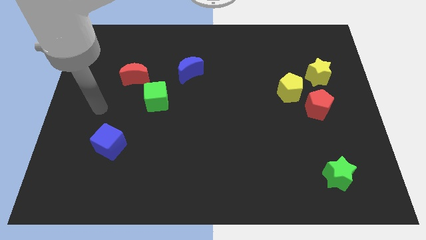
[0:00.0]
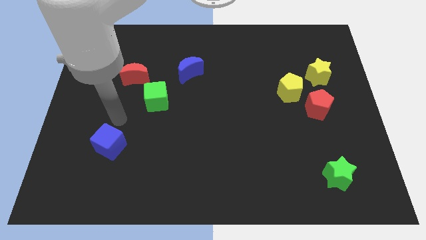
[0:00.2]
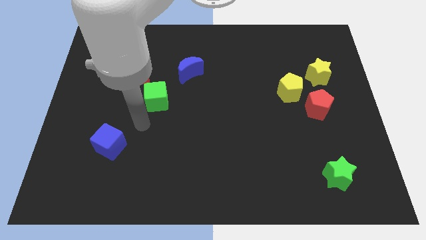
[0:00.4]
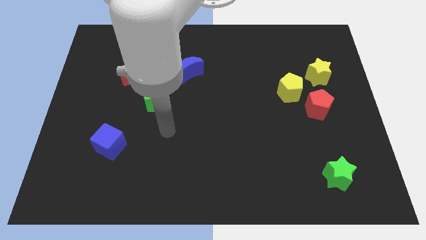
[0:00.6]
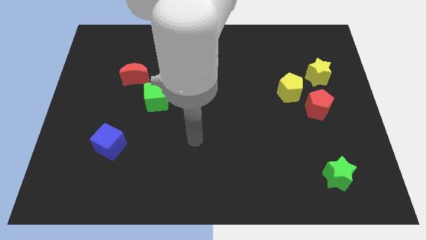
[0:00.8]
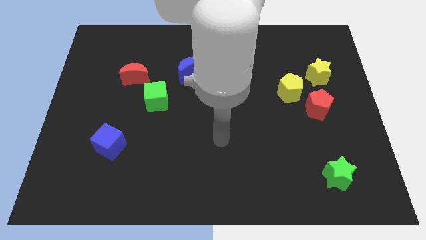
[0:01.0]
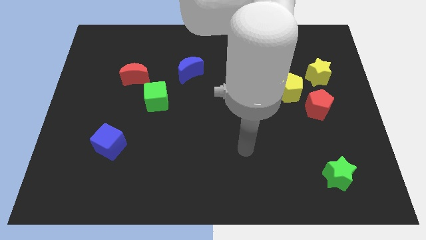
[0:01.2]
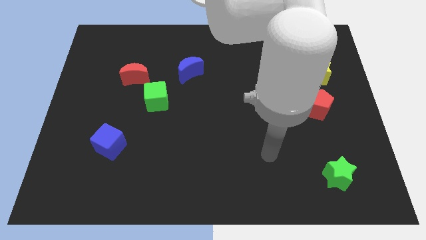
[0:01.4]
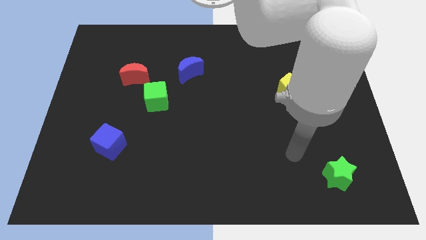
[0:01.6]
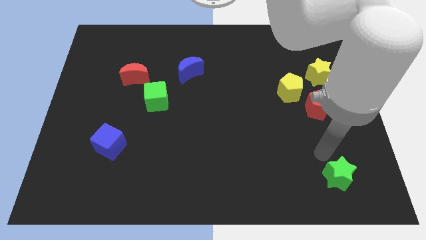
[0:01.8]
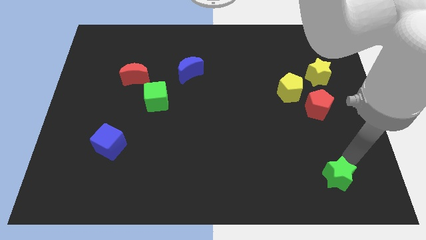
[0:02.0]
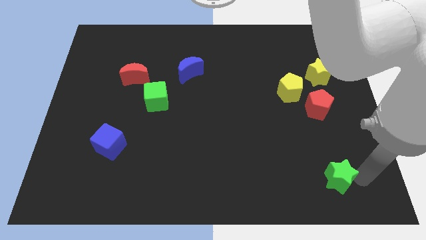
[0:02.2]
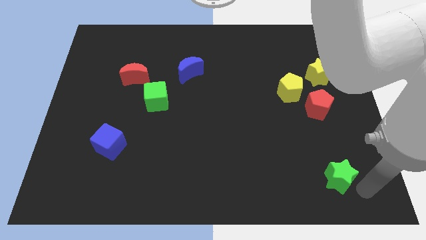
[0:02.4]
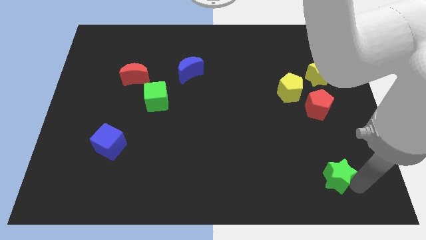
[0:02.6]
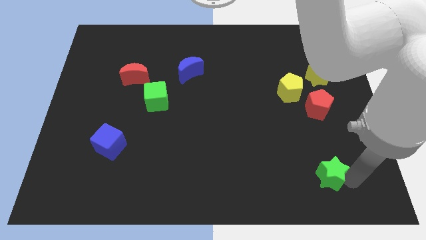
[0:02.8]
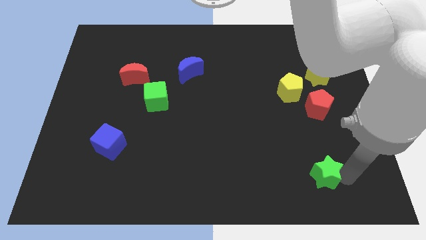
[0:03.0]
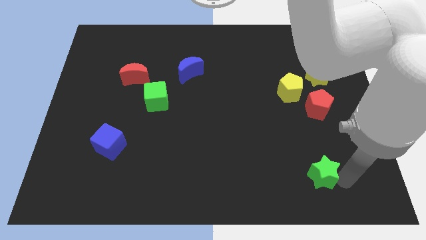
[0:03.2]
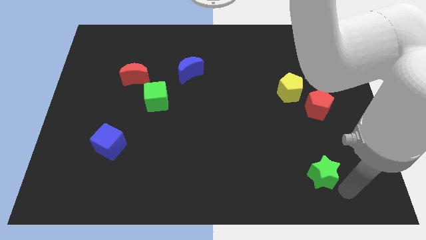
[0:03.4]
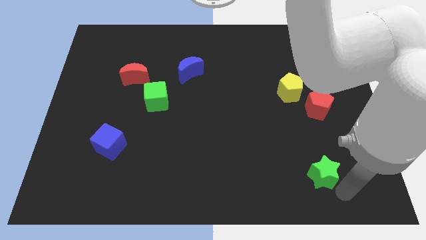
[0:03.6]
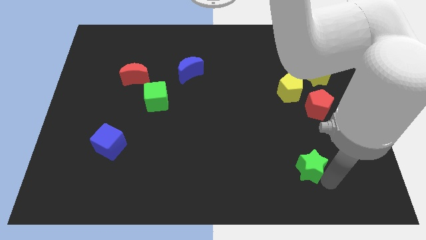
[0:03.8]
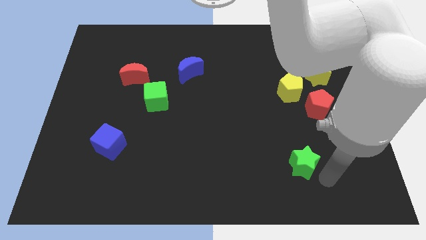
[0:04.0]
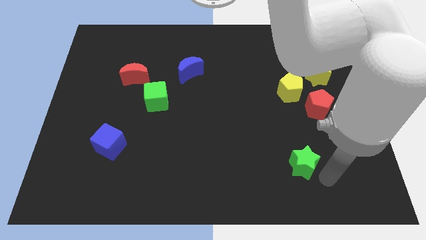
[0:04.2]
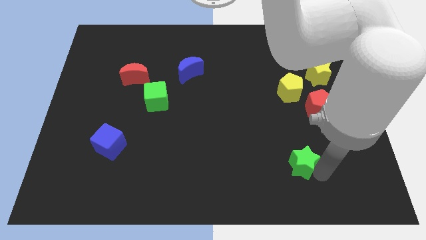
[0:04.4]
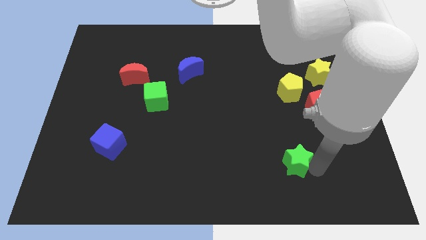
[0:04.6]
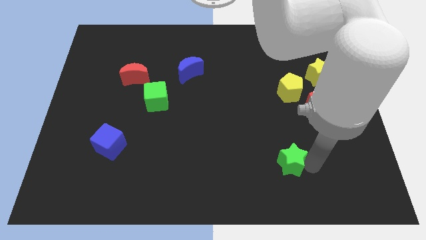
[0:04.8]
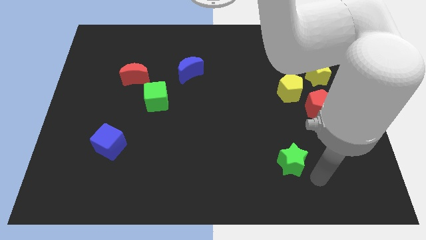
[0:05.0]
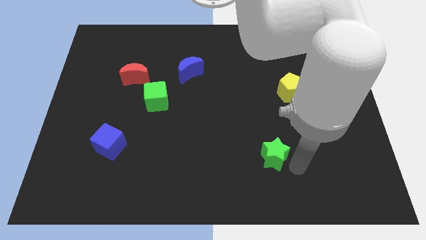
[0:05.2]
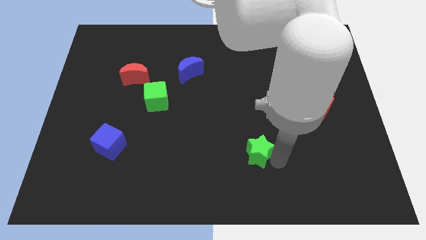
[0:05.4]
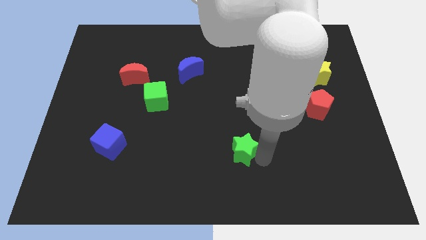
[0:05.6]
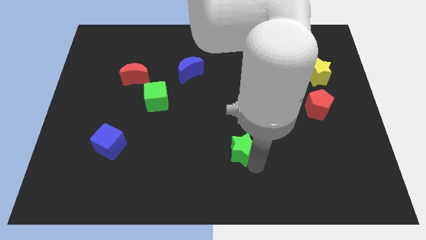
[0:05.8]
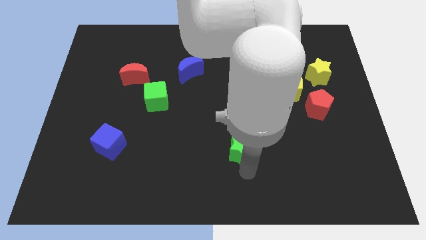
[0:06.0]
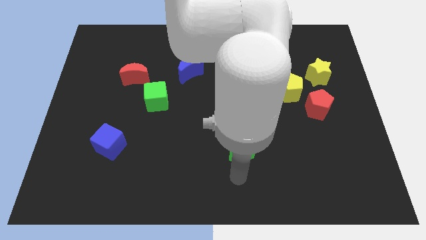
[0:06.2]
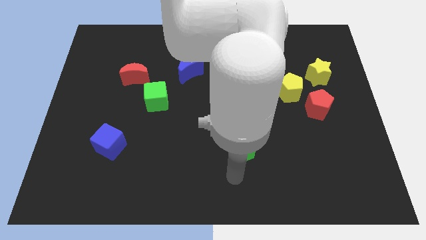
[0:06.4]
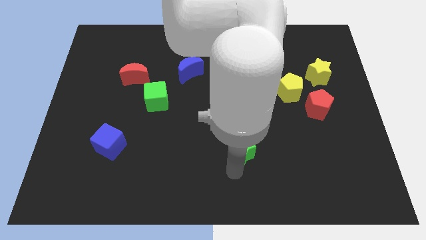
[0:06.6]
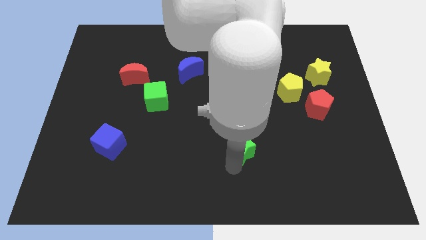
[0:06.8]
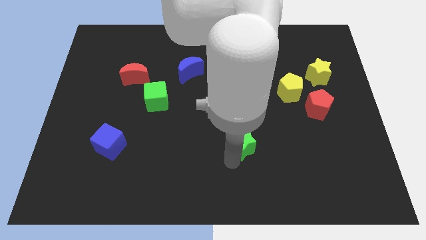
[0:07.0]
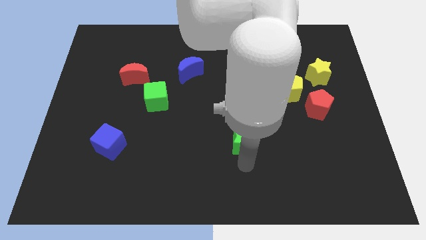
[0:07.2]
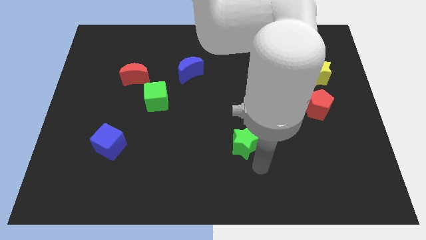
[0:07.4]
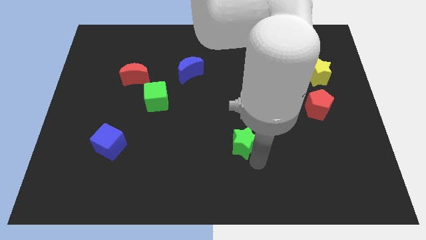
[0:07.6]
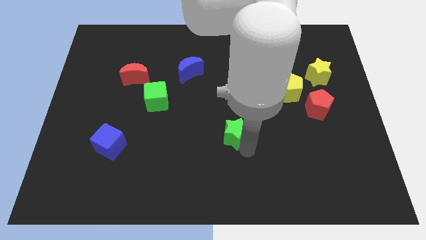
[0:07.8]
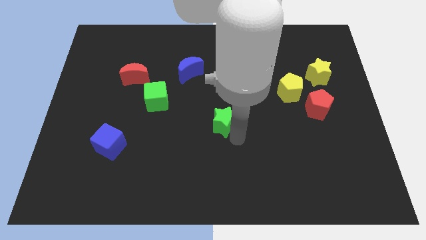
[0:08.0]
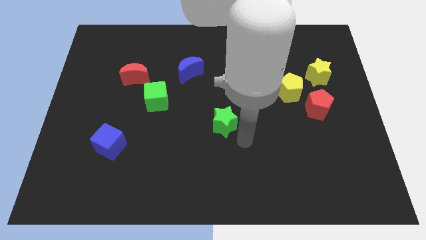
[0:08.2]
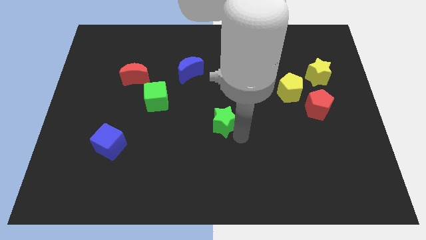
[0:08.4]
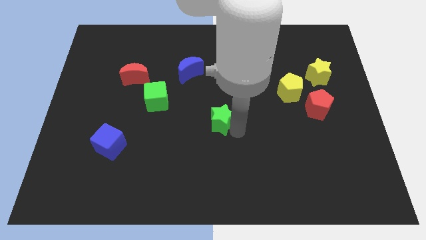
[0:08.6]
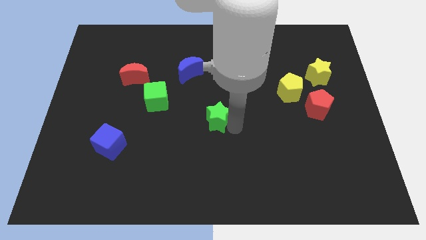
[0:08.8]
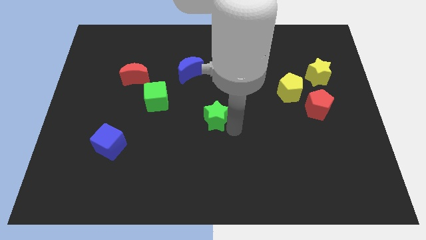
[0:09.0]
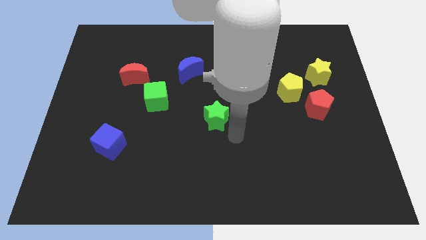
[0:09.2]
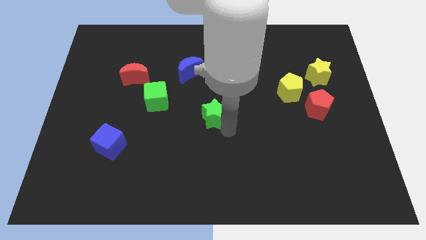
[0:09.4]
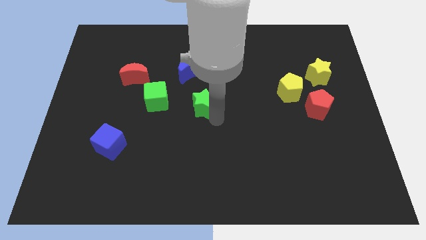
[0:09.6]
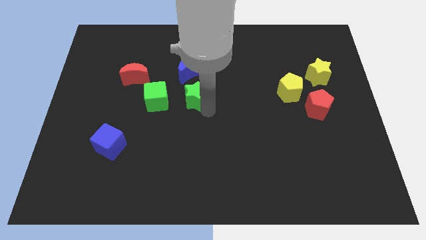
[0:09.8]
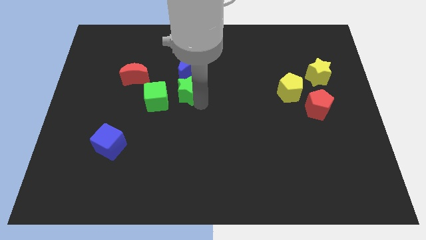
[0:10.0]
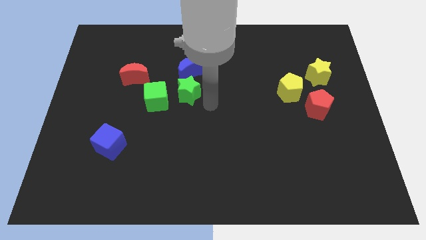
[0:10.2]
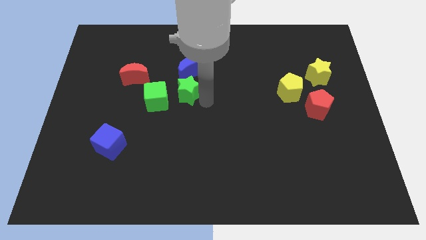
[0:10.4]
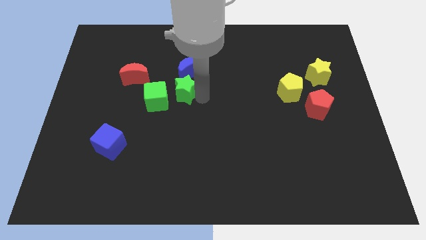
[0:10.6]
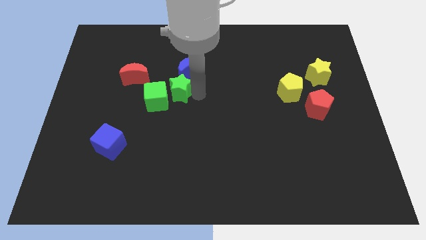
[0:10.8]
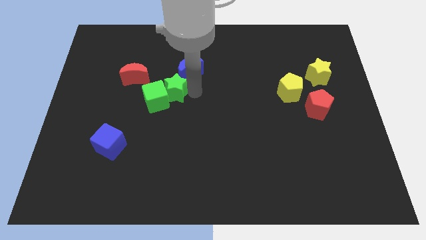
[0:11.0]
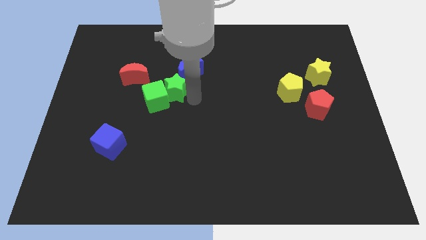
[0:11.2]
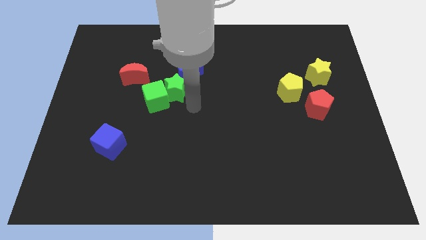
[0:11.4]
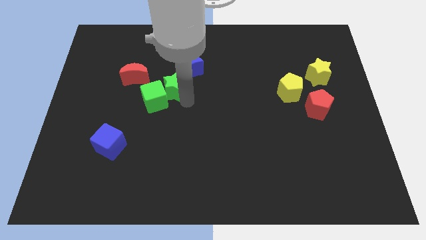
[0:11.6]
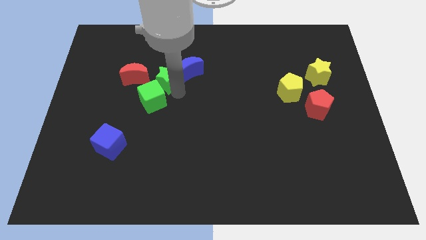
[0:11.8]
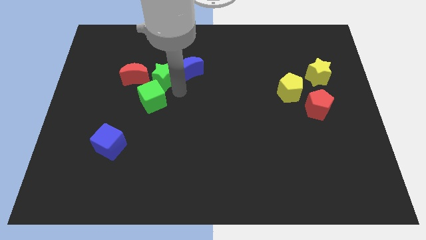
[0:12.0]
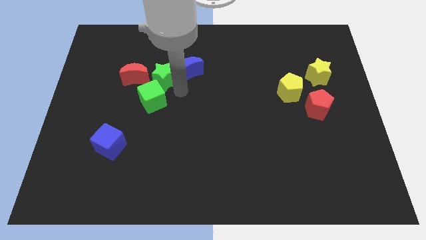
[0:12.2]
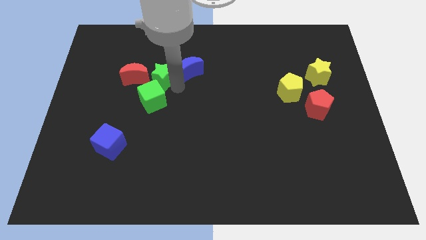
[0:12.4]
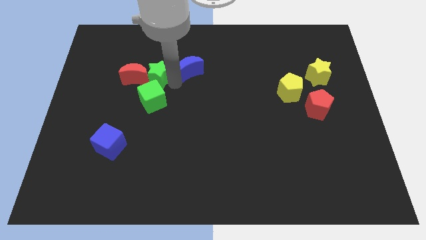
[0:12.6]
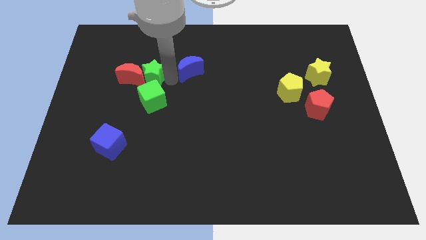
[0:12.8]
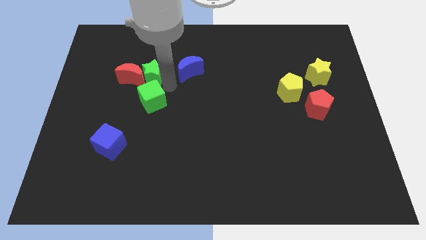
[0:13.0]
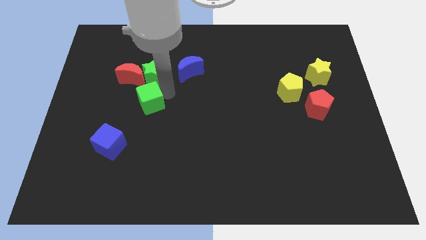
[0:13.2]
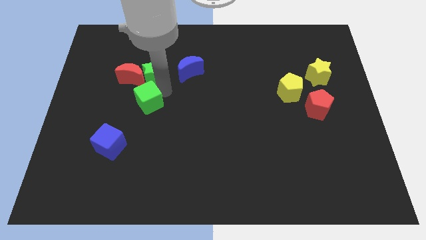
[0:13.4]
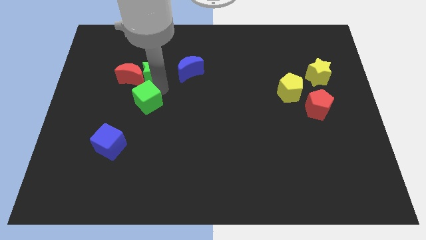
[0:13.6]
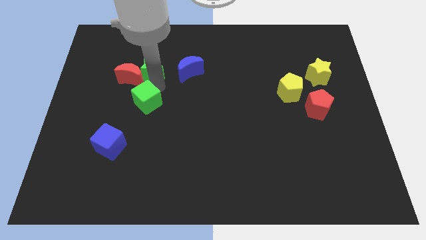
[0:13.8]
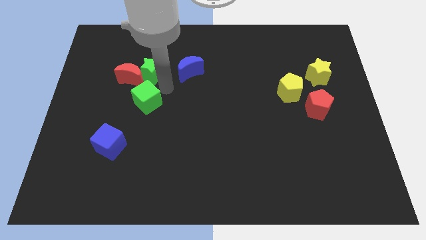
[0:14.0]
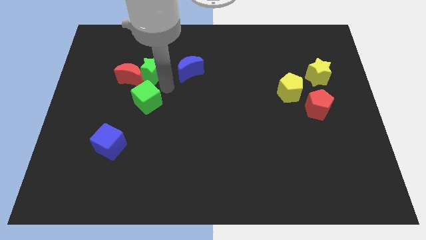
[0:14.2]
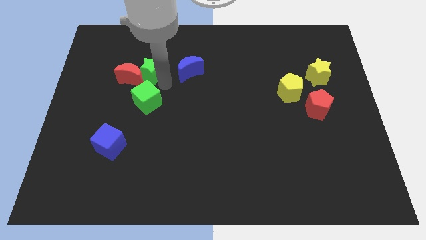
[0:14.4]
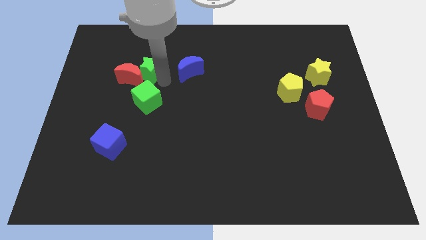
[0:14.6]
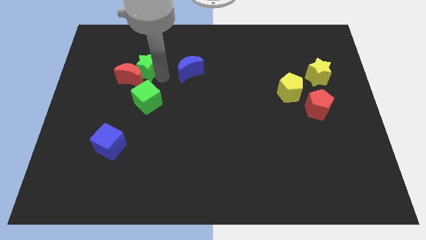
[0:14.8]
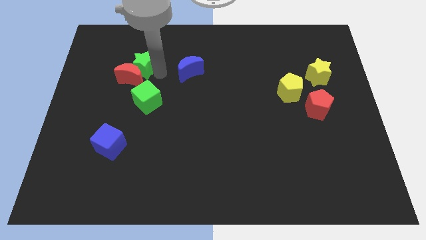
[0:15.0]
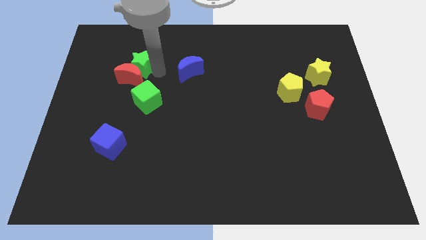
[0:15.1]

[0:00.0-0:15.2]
move the green star to the top left side of the red moon
